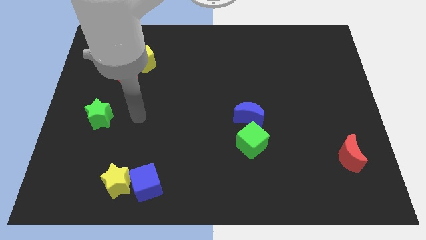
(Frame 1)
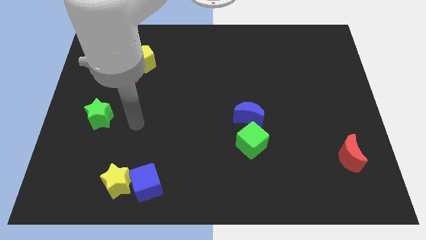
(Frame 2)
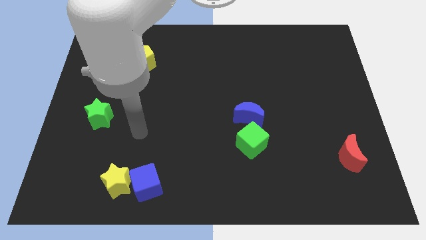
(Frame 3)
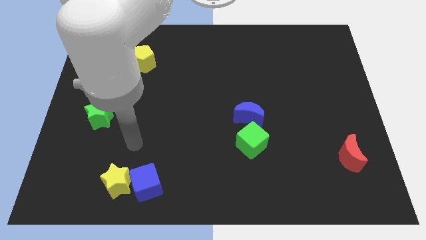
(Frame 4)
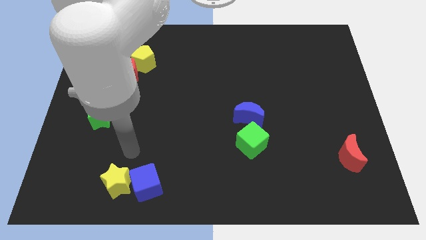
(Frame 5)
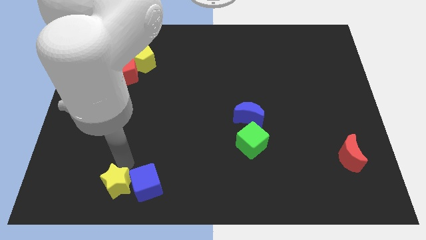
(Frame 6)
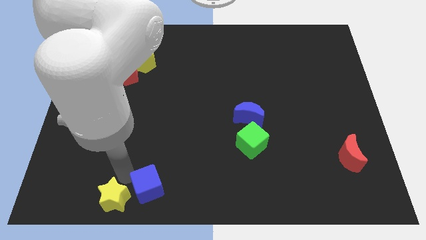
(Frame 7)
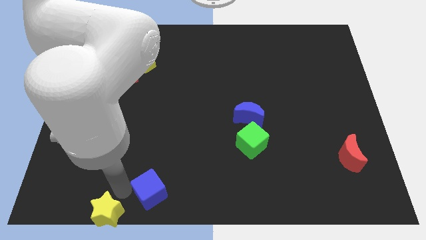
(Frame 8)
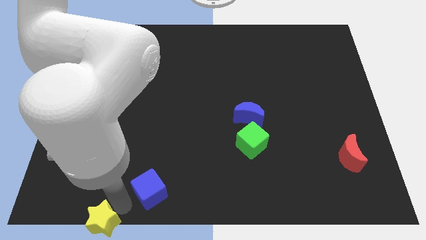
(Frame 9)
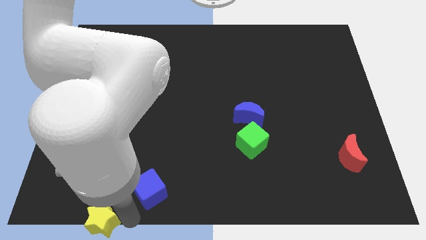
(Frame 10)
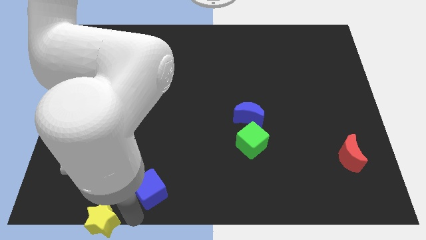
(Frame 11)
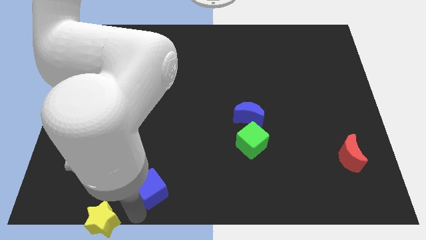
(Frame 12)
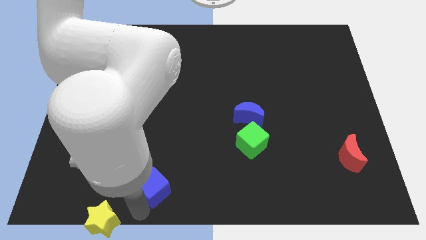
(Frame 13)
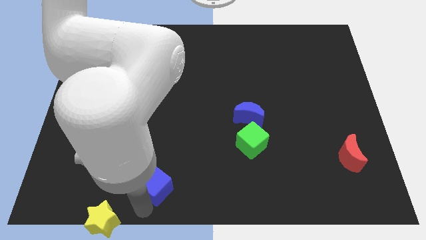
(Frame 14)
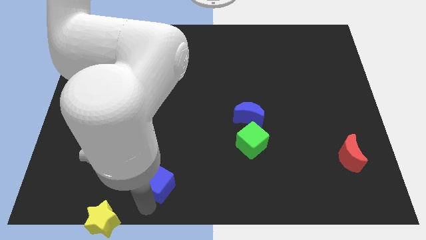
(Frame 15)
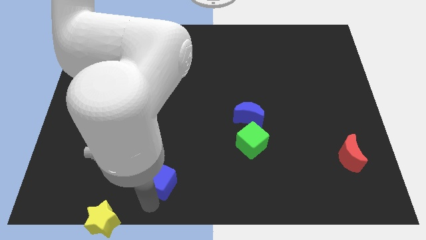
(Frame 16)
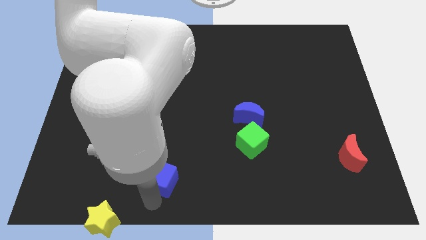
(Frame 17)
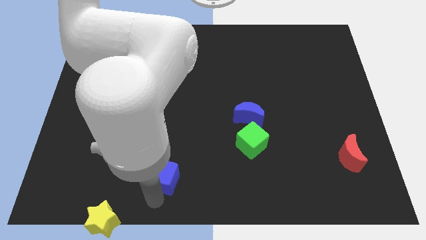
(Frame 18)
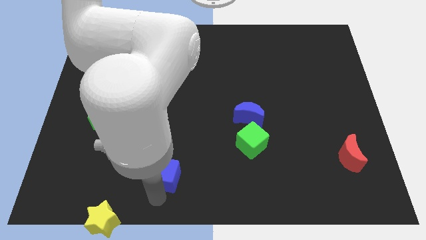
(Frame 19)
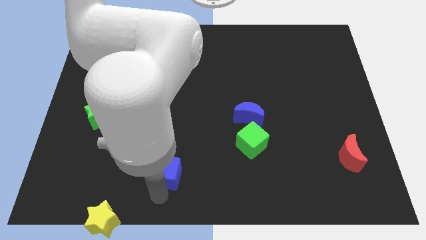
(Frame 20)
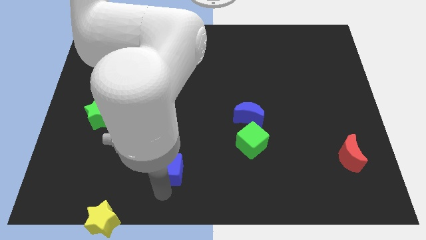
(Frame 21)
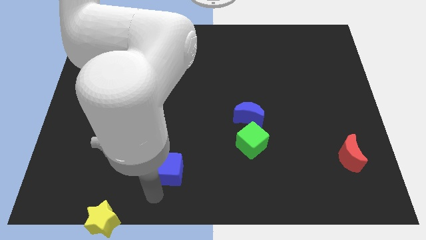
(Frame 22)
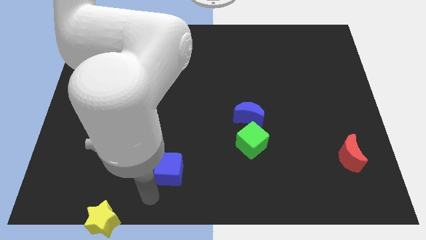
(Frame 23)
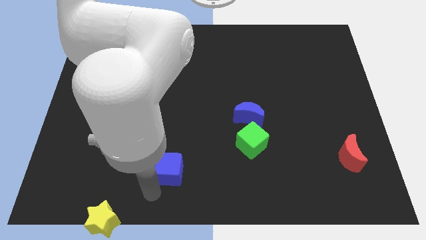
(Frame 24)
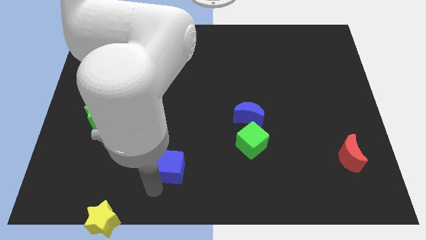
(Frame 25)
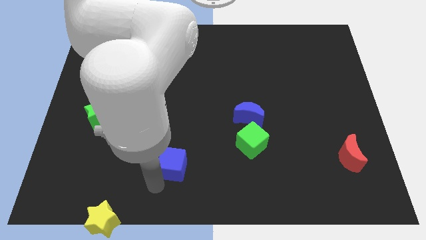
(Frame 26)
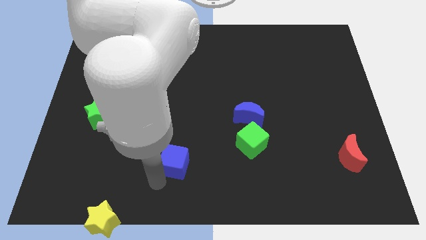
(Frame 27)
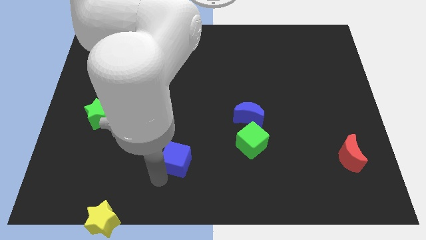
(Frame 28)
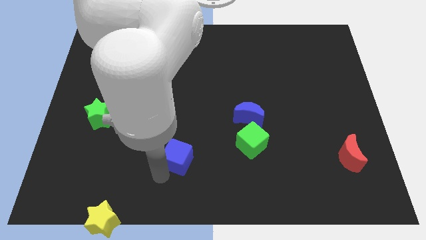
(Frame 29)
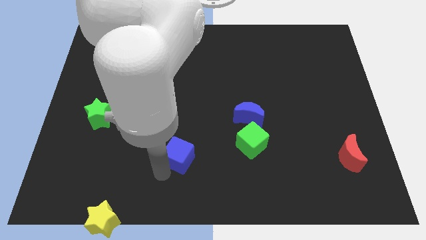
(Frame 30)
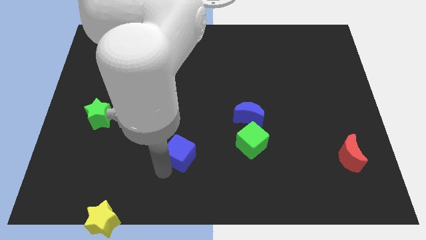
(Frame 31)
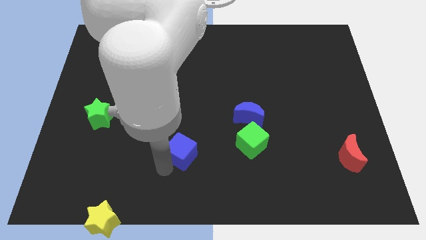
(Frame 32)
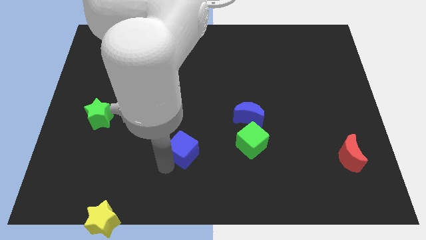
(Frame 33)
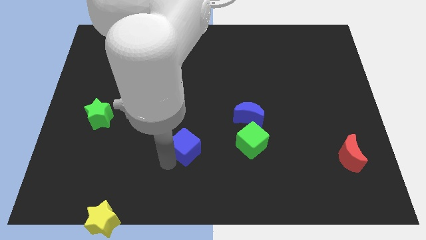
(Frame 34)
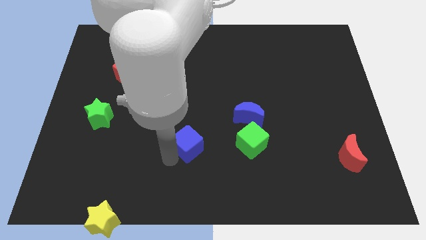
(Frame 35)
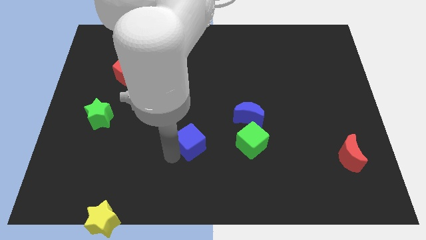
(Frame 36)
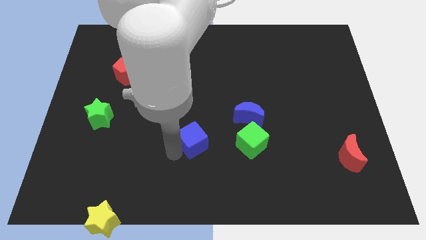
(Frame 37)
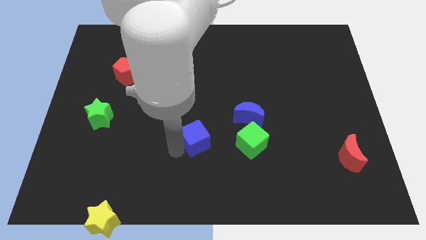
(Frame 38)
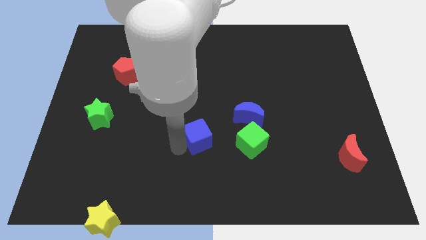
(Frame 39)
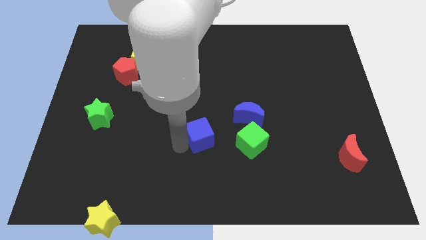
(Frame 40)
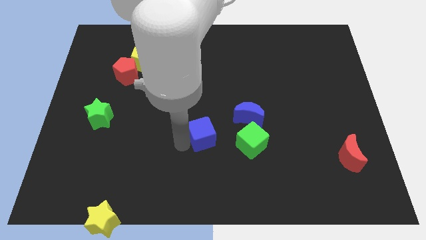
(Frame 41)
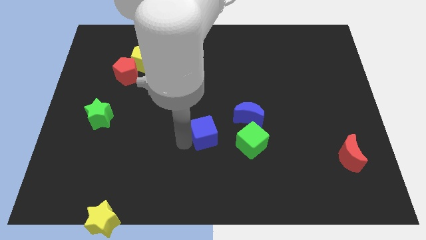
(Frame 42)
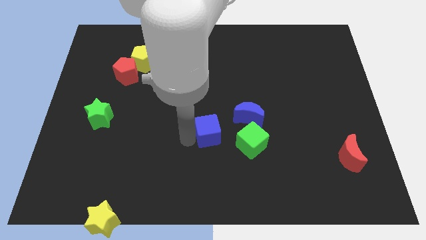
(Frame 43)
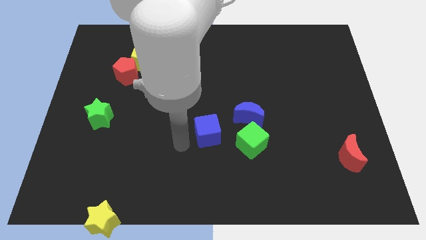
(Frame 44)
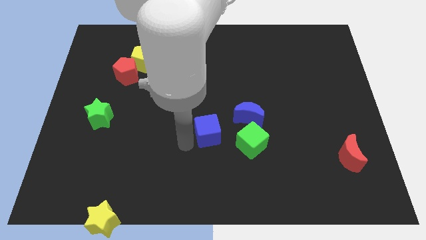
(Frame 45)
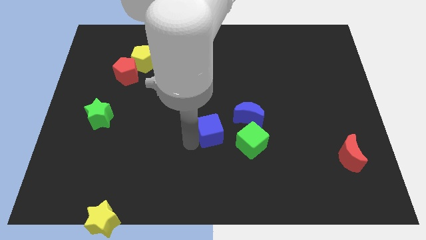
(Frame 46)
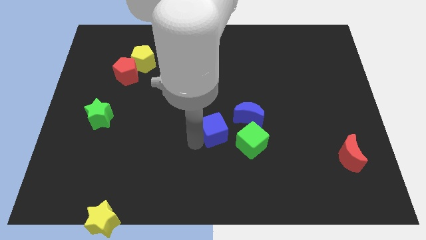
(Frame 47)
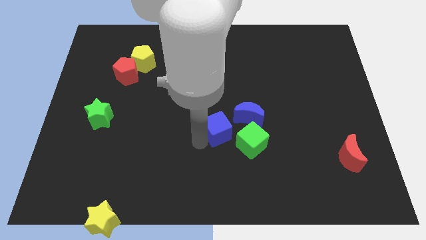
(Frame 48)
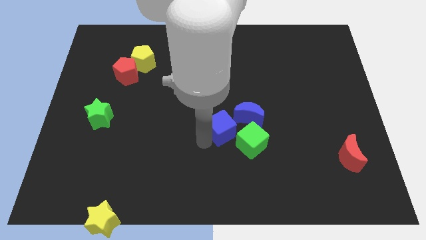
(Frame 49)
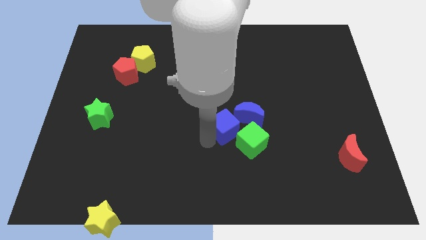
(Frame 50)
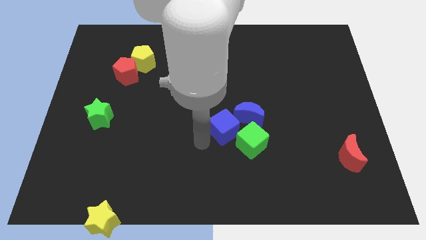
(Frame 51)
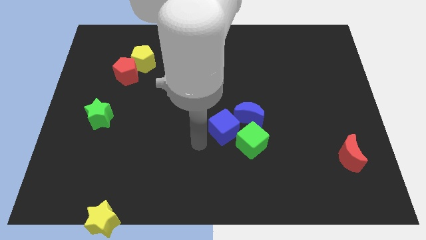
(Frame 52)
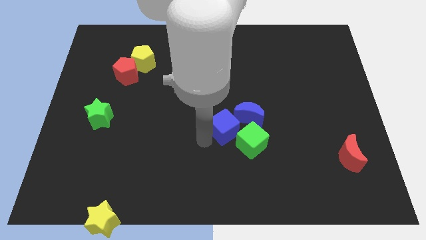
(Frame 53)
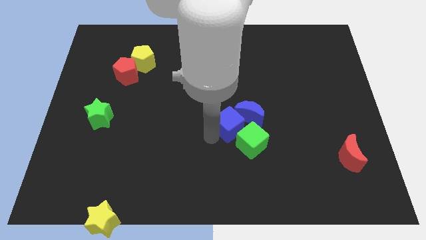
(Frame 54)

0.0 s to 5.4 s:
slide the blue cube close to the blue moon
